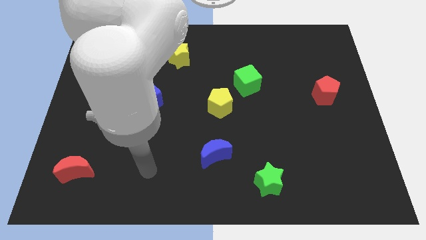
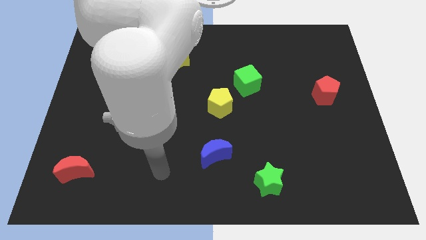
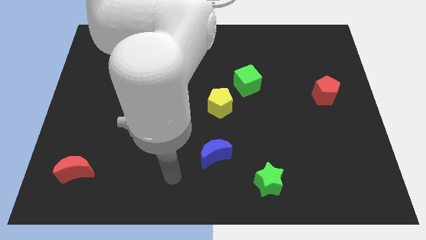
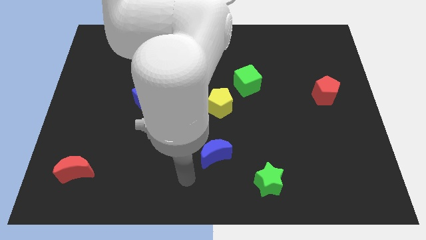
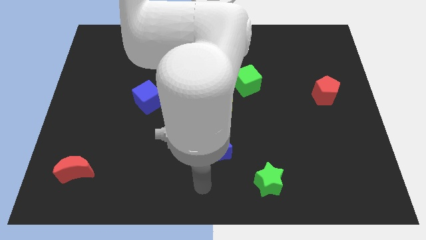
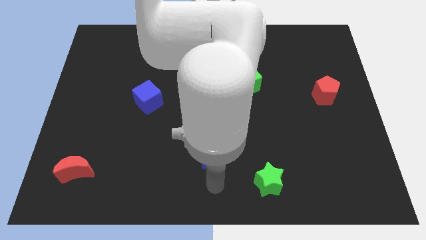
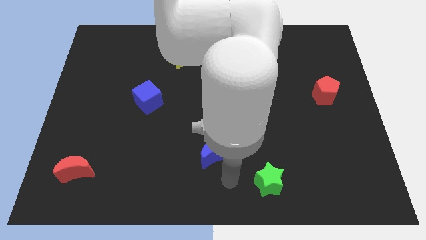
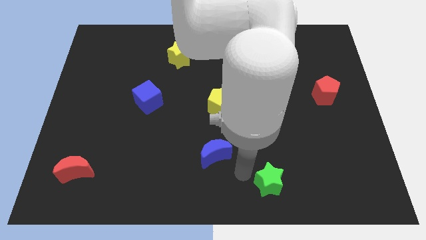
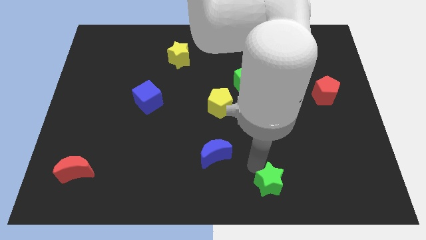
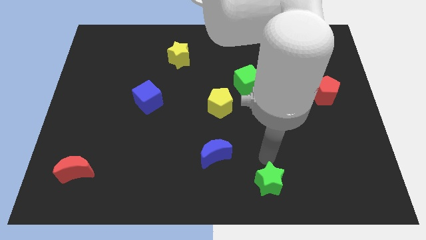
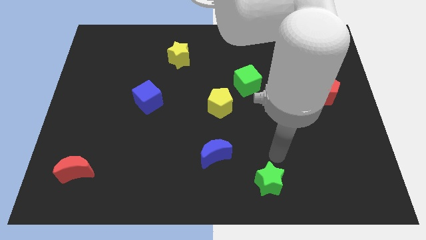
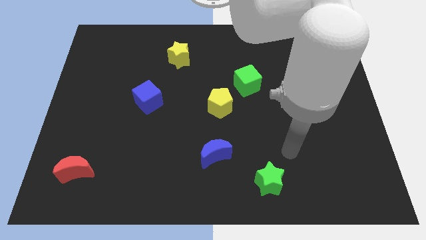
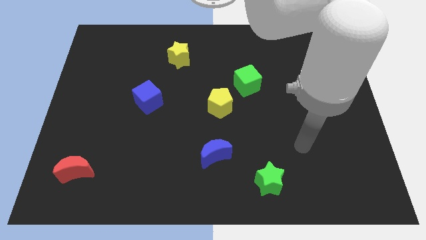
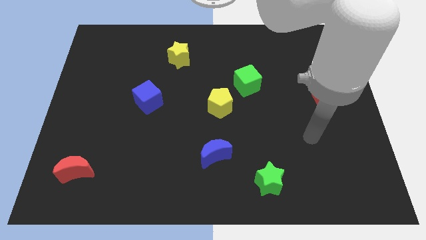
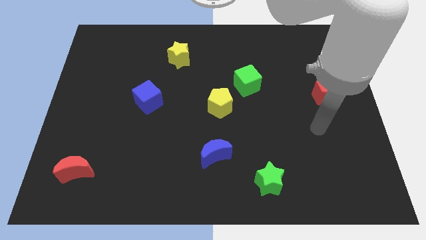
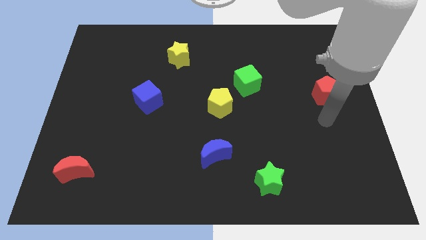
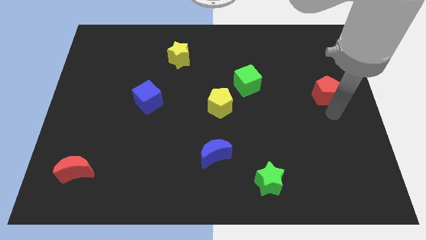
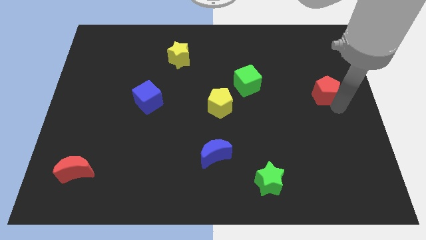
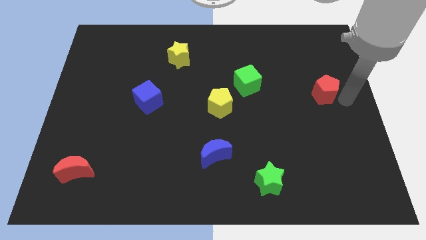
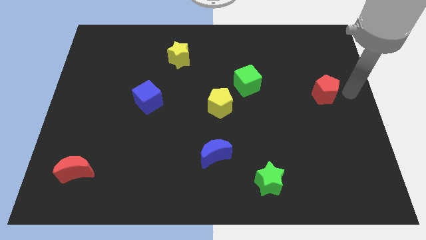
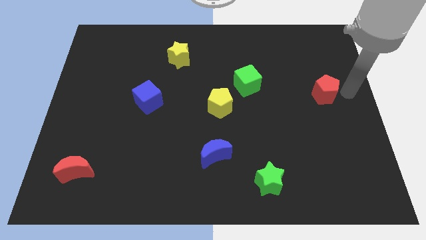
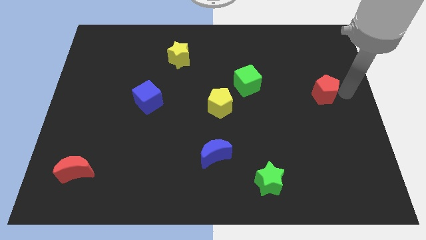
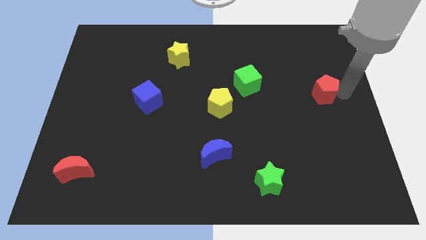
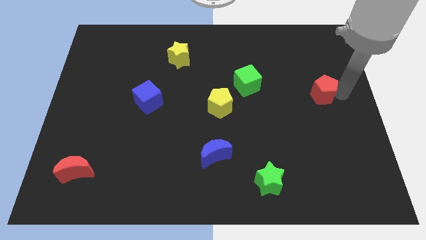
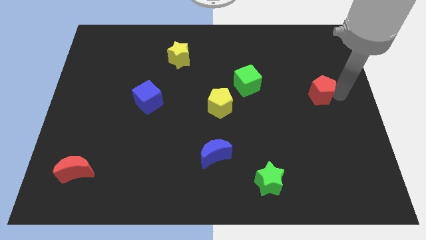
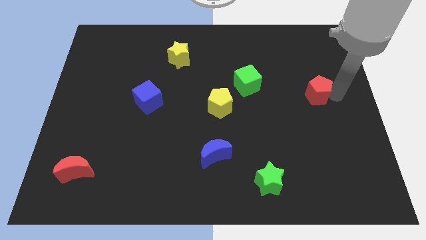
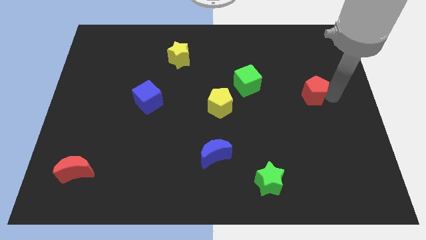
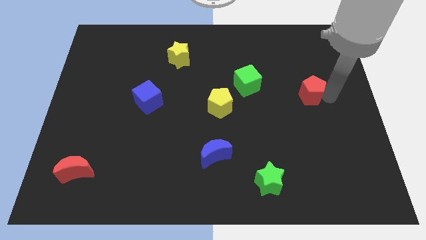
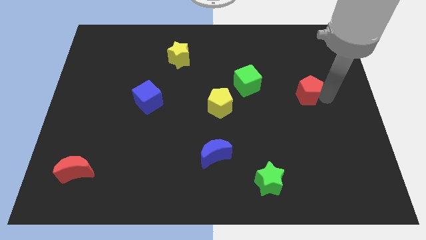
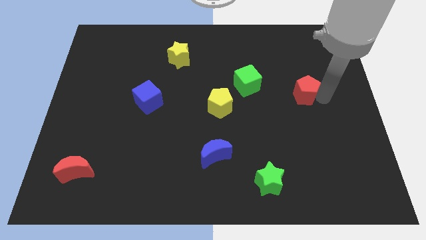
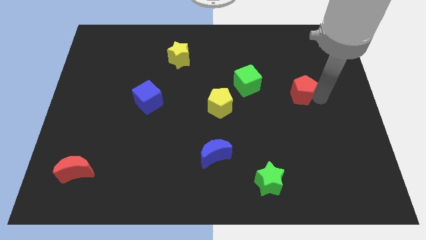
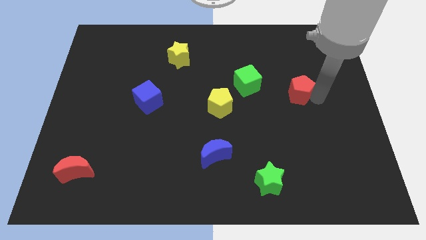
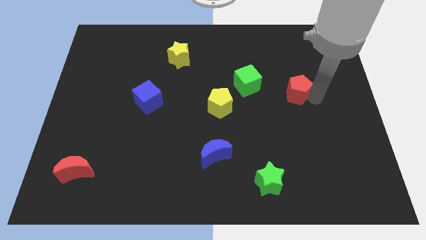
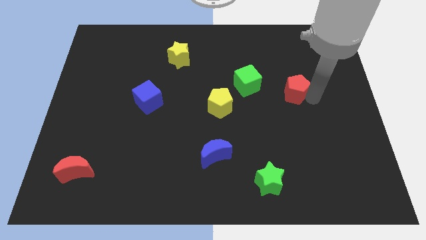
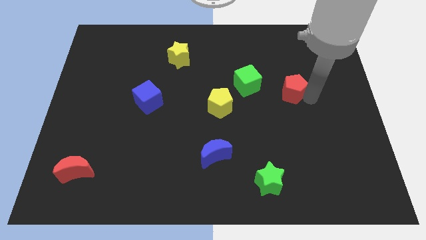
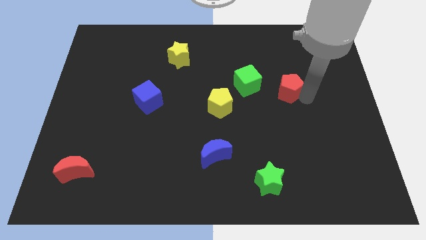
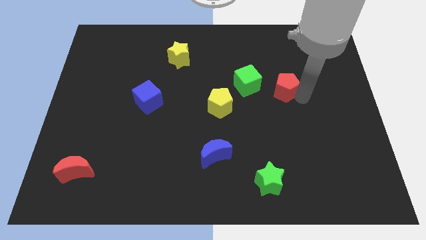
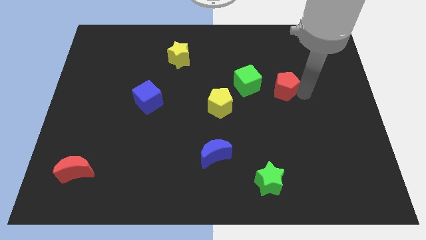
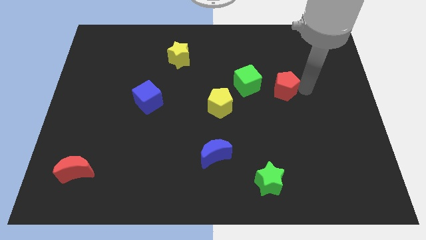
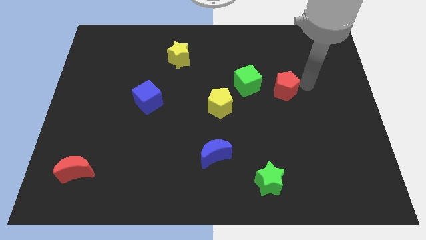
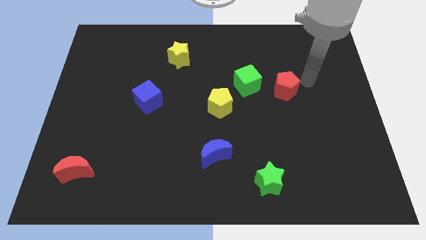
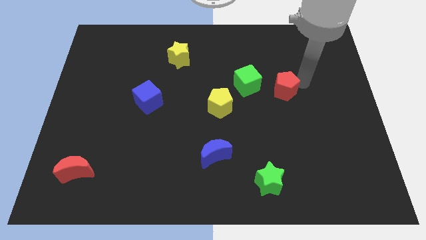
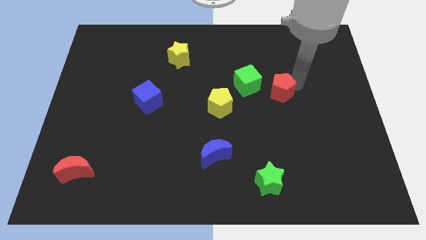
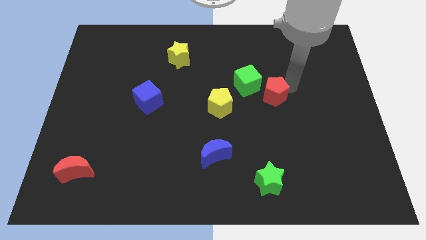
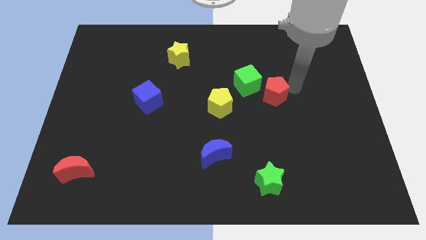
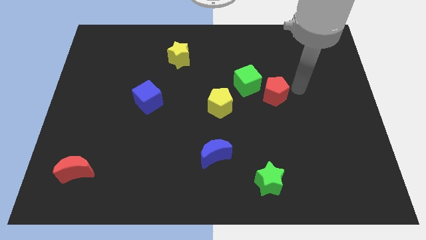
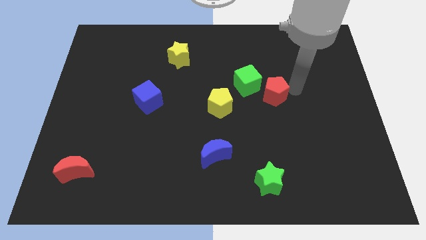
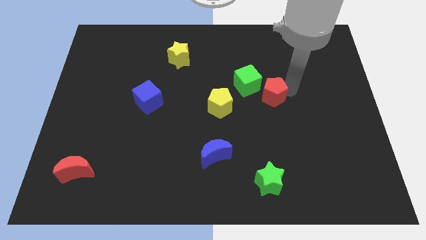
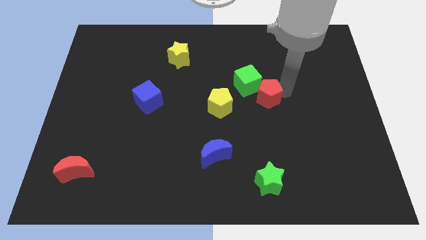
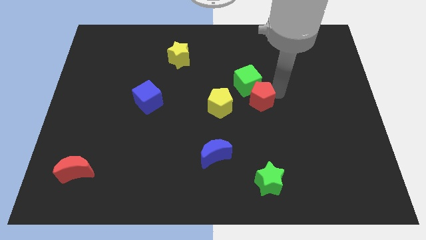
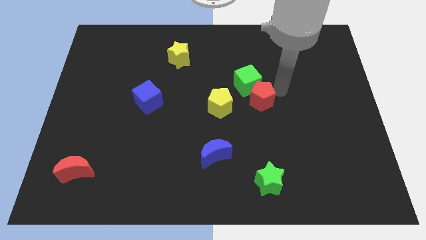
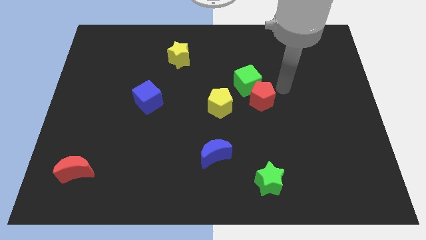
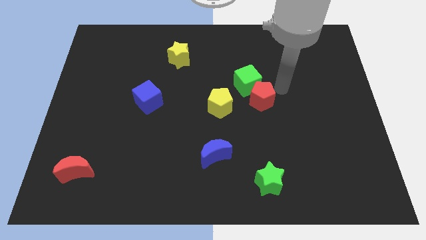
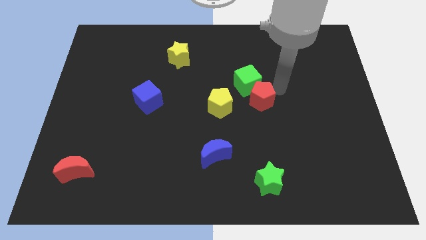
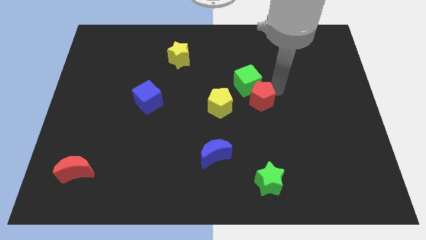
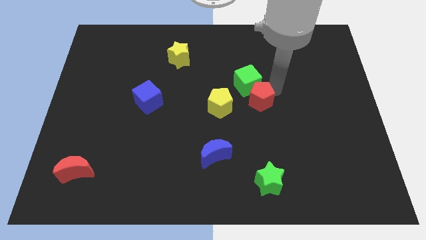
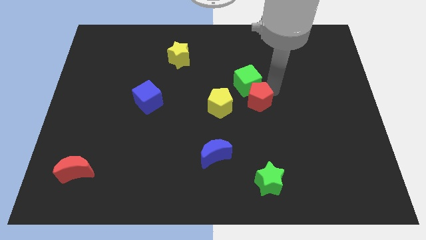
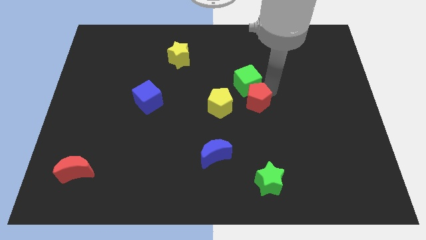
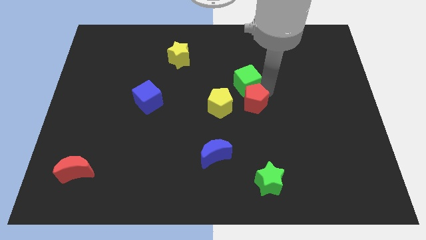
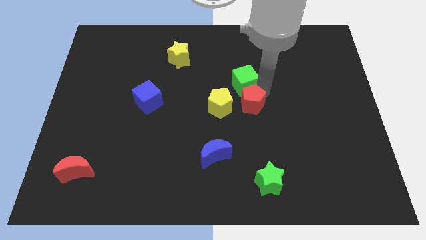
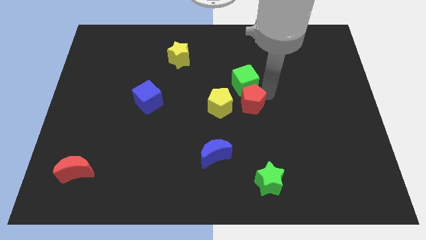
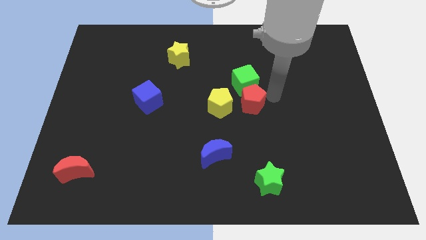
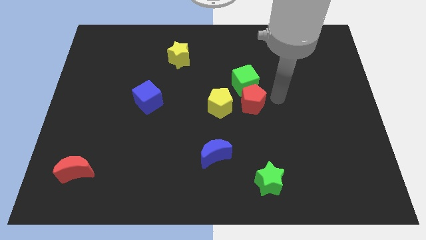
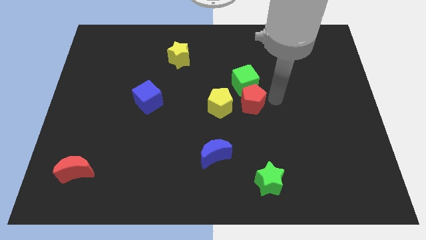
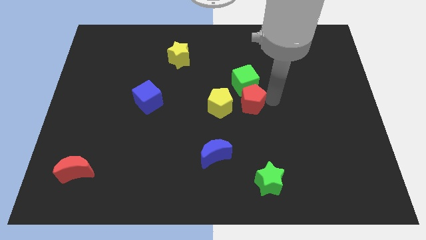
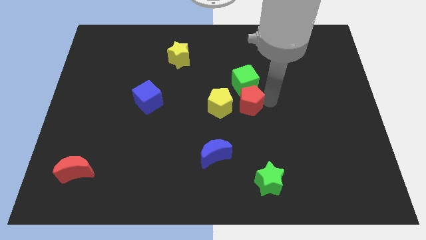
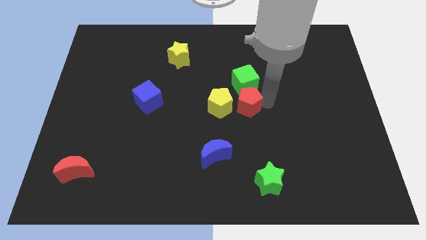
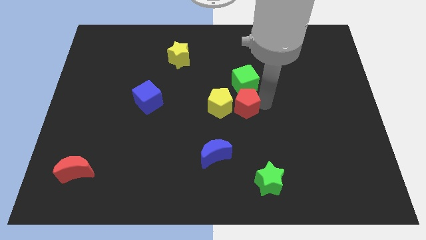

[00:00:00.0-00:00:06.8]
slide the red pentagon to the yellow pentagon

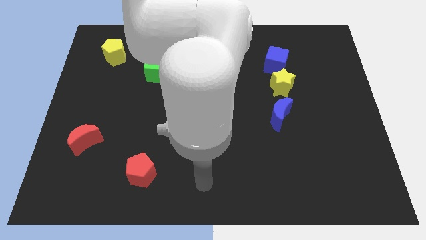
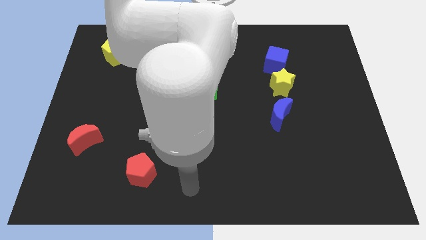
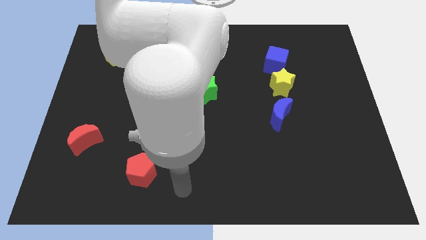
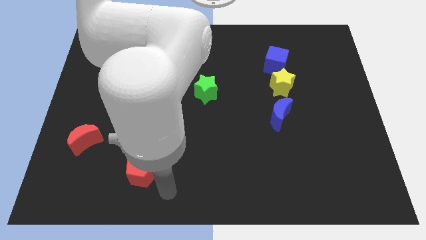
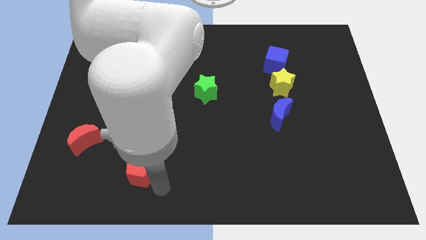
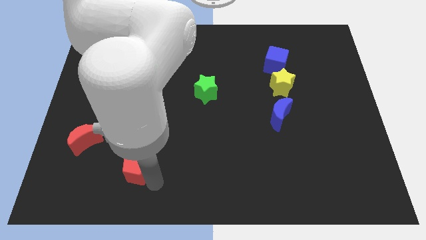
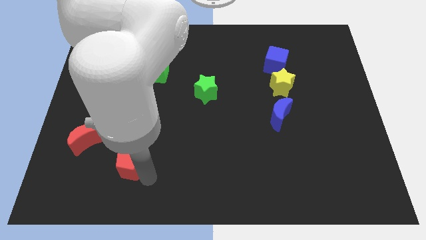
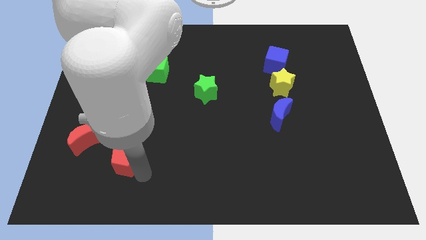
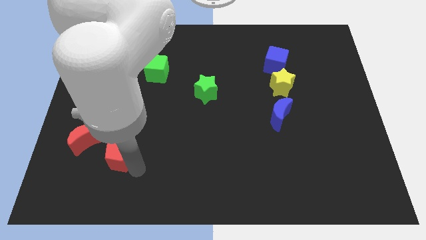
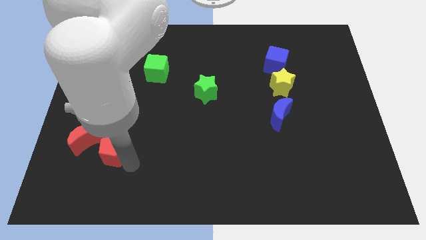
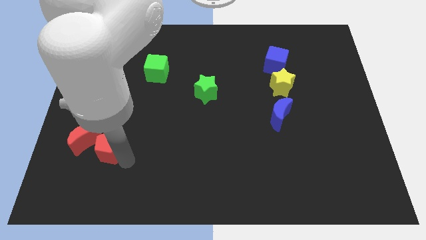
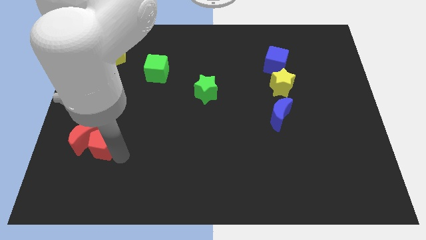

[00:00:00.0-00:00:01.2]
move the red pentagon towards the red moon
